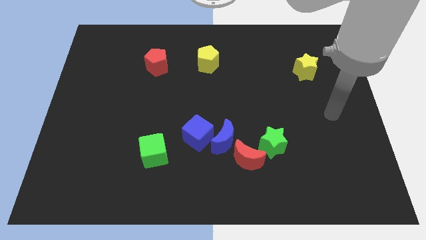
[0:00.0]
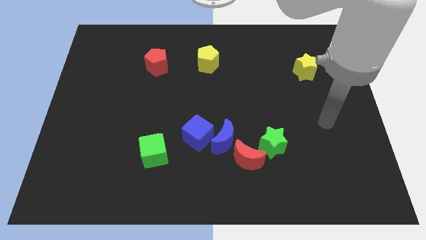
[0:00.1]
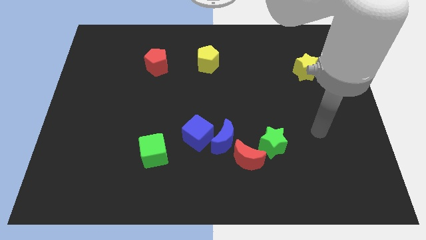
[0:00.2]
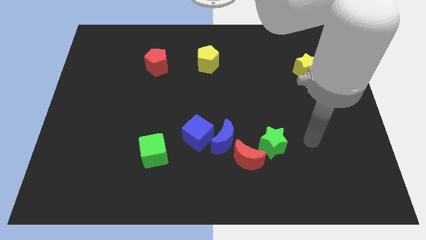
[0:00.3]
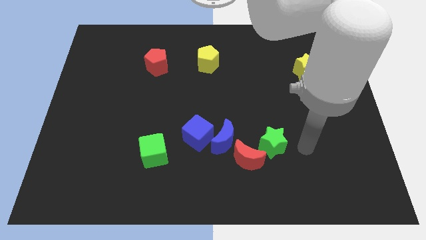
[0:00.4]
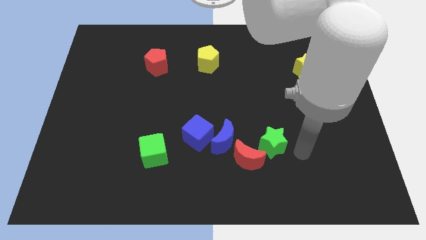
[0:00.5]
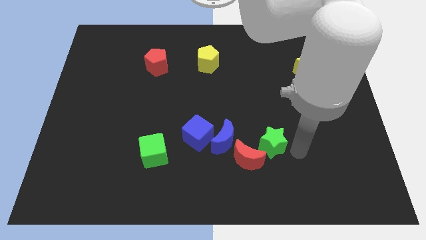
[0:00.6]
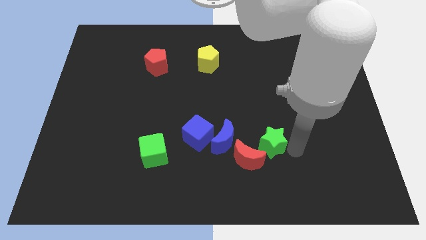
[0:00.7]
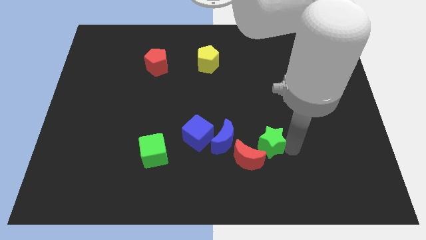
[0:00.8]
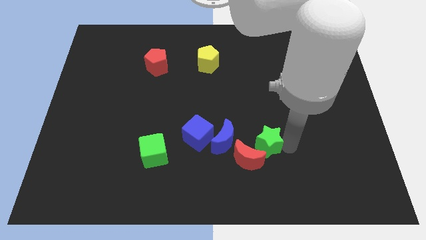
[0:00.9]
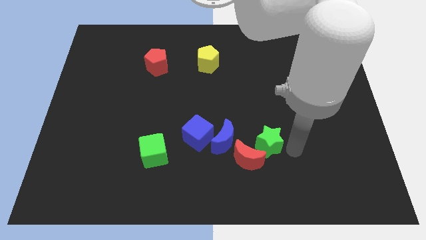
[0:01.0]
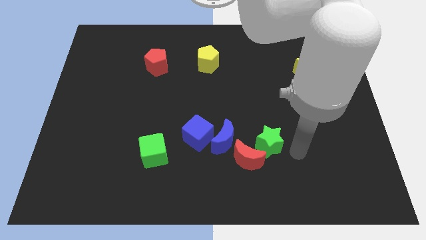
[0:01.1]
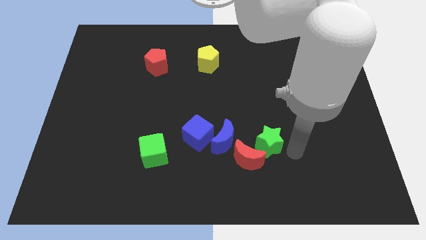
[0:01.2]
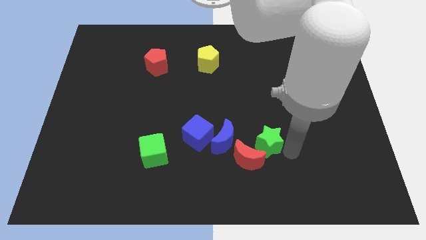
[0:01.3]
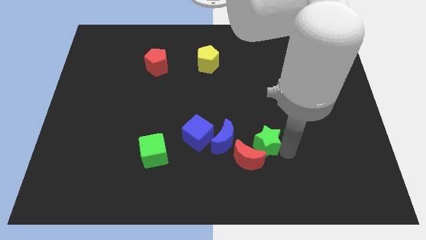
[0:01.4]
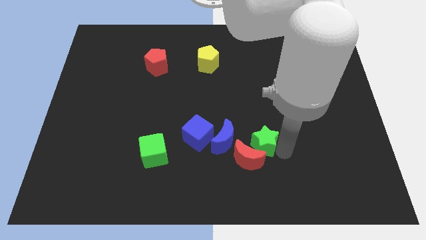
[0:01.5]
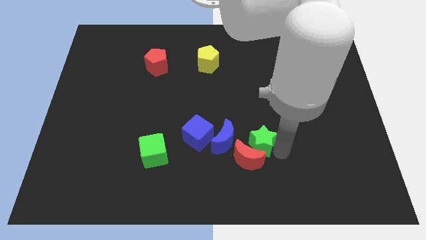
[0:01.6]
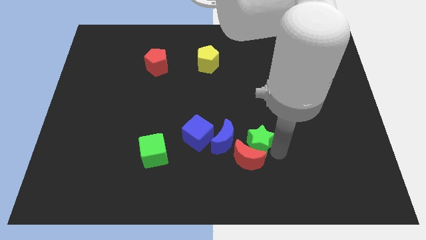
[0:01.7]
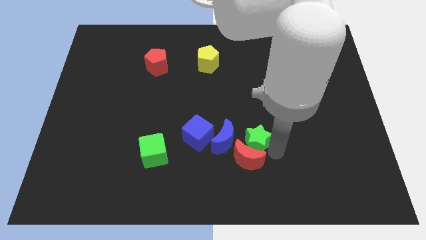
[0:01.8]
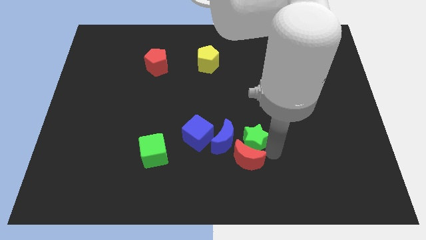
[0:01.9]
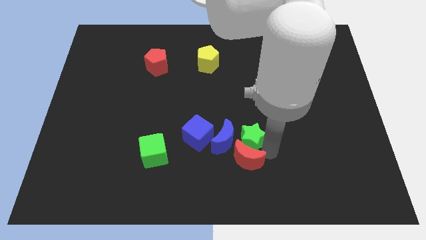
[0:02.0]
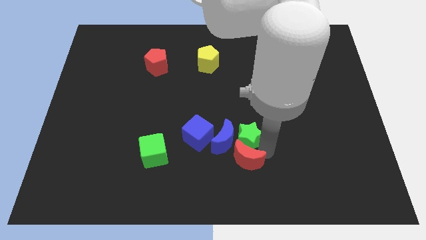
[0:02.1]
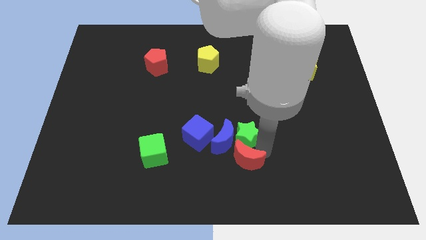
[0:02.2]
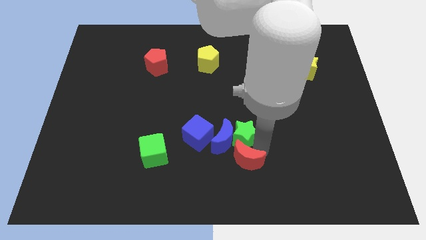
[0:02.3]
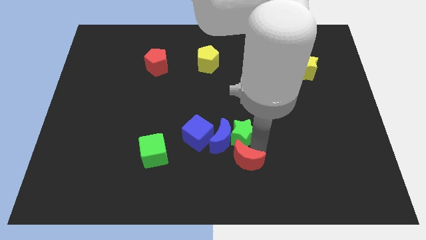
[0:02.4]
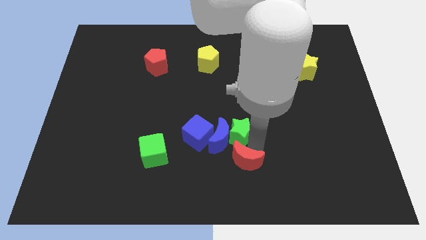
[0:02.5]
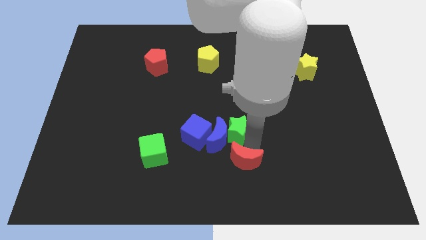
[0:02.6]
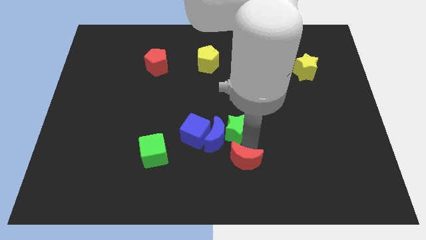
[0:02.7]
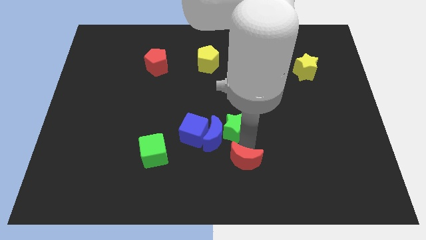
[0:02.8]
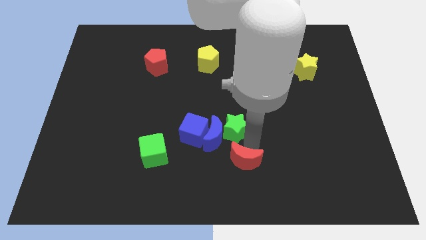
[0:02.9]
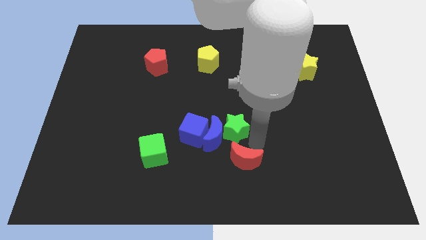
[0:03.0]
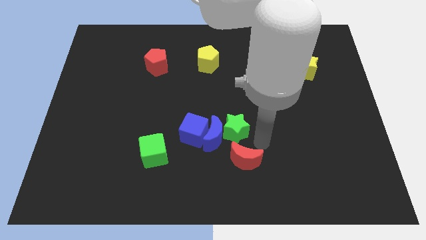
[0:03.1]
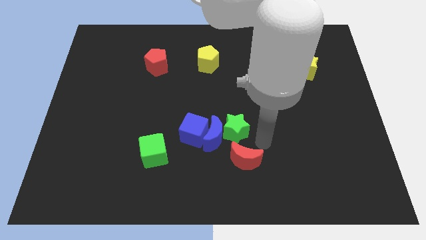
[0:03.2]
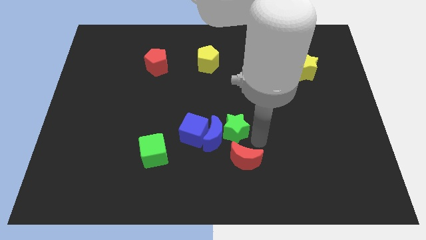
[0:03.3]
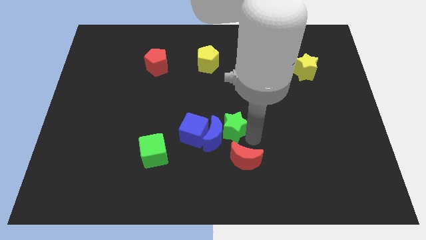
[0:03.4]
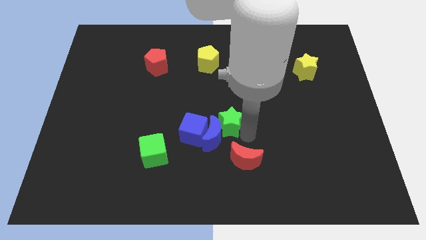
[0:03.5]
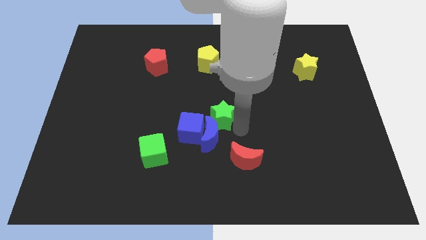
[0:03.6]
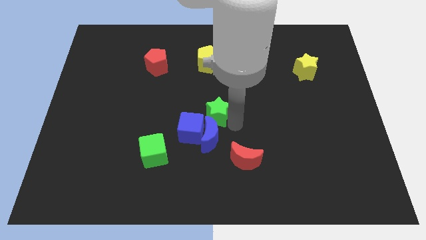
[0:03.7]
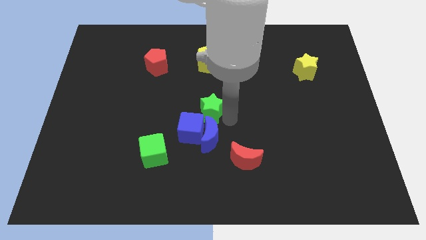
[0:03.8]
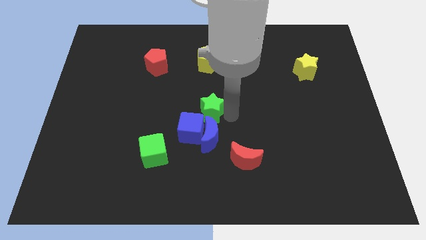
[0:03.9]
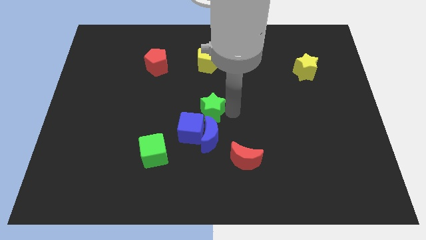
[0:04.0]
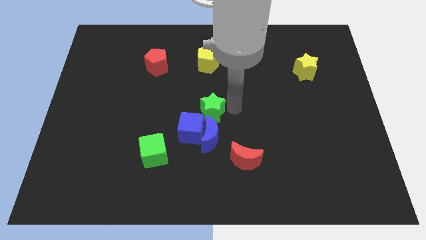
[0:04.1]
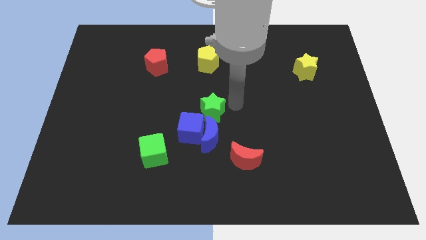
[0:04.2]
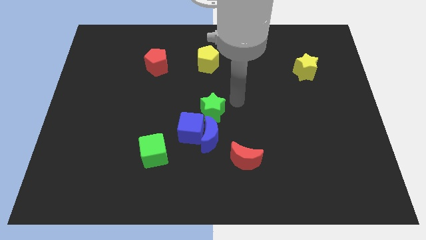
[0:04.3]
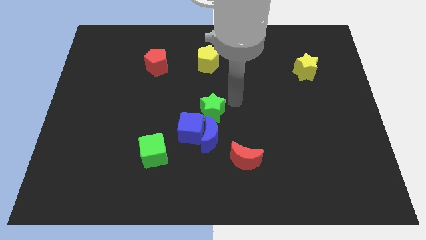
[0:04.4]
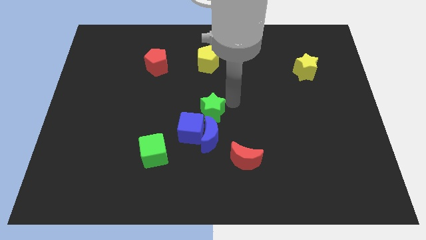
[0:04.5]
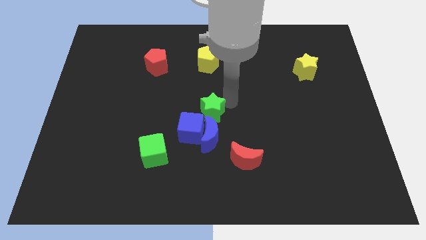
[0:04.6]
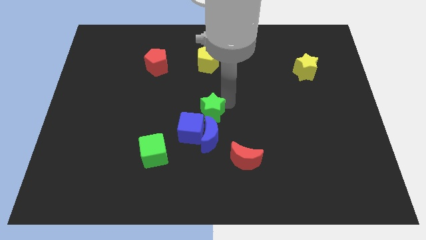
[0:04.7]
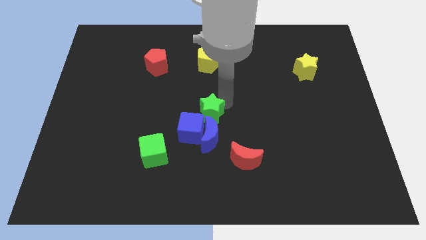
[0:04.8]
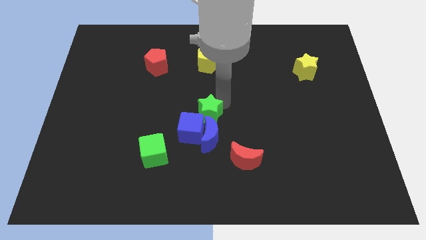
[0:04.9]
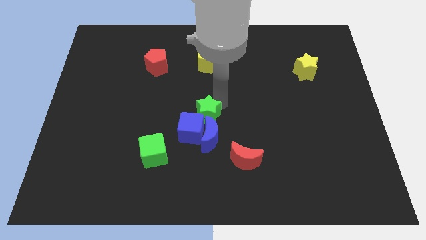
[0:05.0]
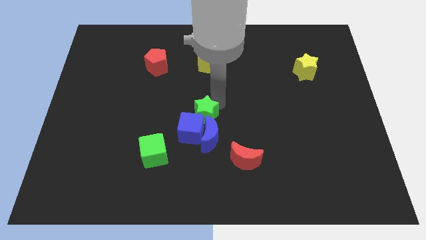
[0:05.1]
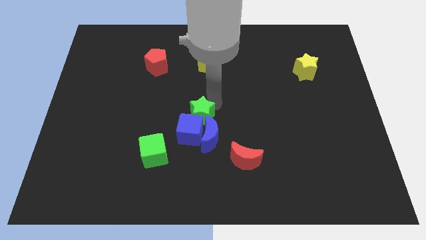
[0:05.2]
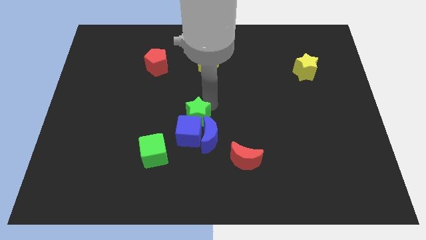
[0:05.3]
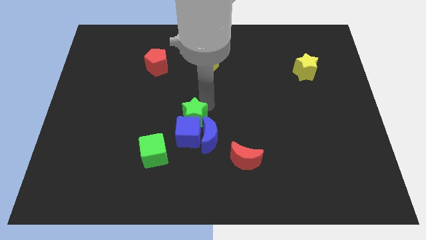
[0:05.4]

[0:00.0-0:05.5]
put the green star diagonally up and to the left of the blue cube

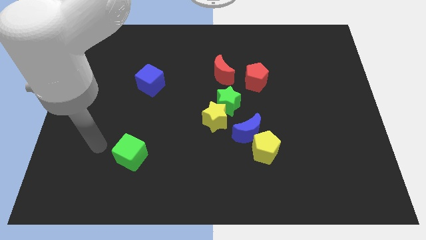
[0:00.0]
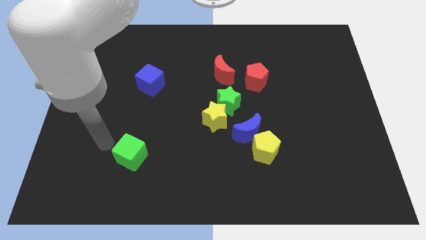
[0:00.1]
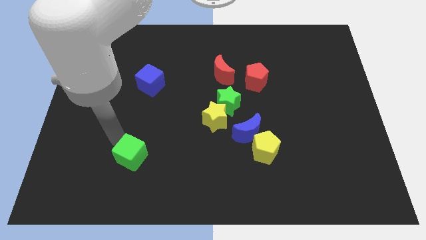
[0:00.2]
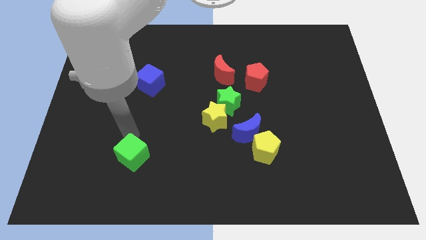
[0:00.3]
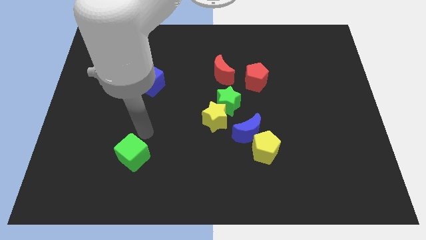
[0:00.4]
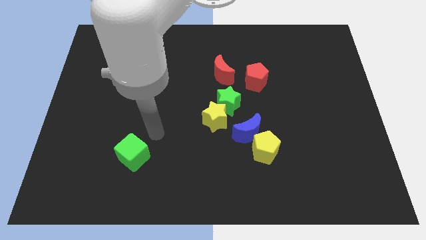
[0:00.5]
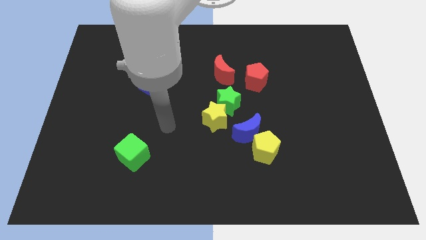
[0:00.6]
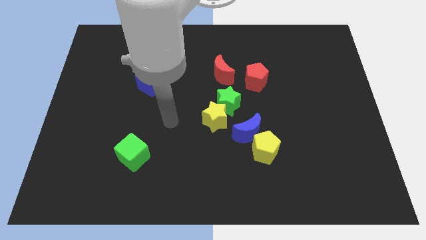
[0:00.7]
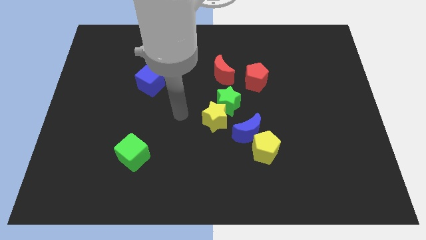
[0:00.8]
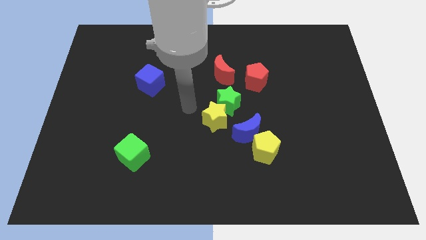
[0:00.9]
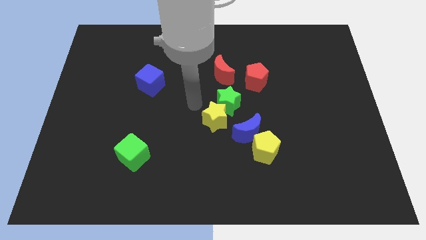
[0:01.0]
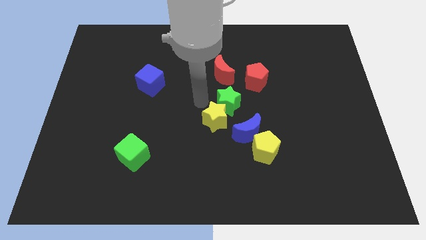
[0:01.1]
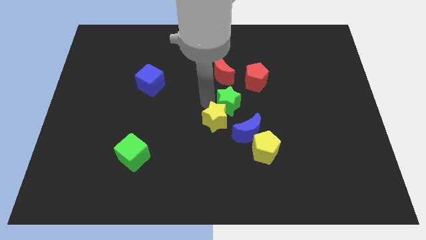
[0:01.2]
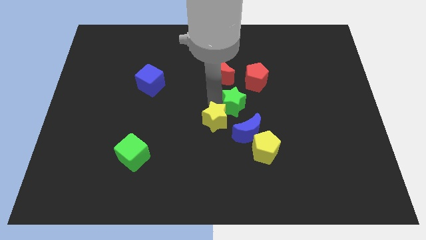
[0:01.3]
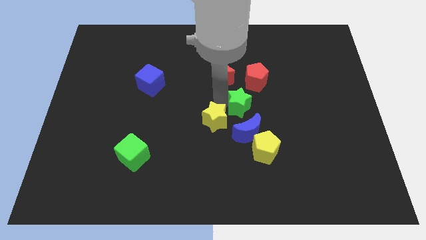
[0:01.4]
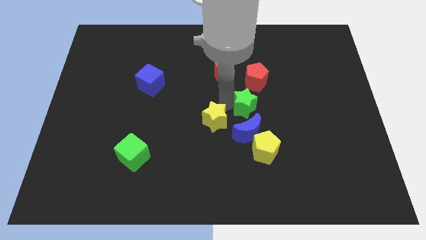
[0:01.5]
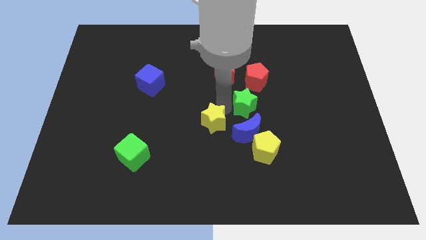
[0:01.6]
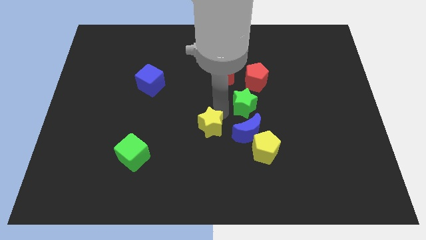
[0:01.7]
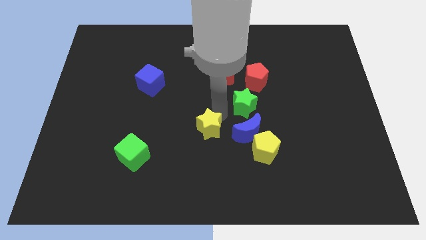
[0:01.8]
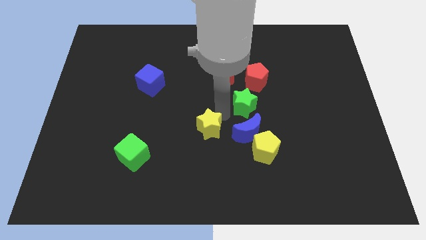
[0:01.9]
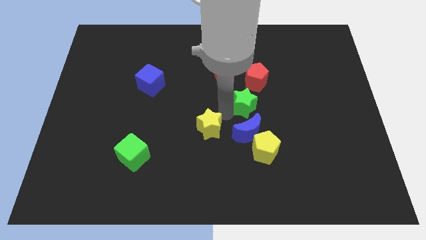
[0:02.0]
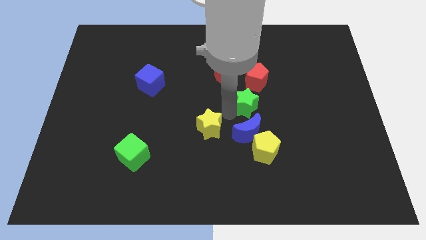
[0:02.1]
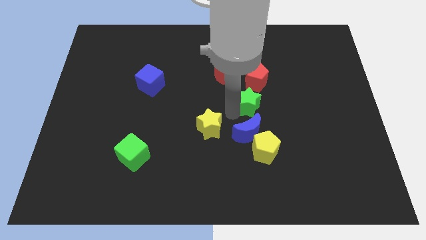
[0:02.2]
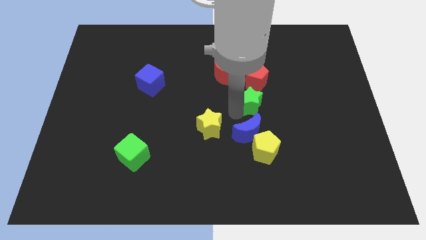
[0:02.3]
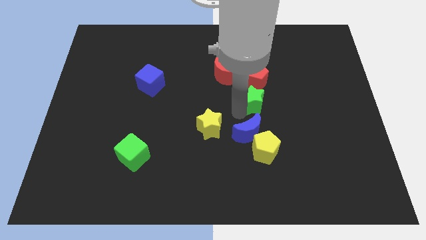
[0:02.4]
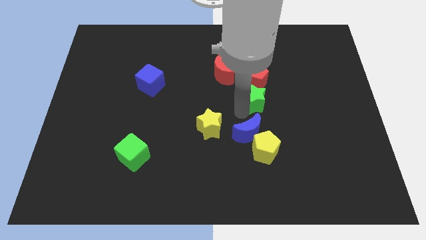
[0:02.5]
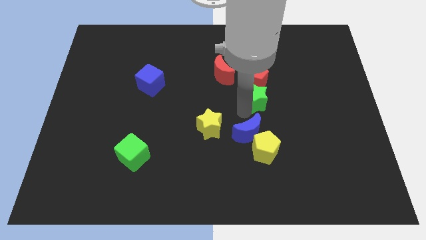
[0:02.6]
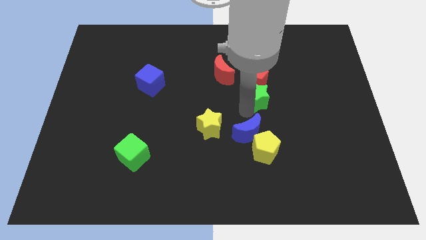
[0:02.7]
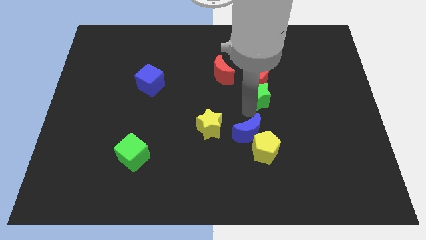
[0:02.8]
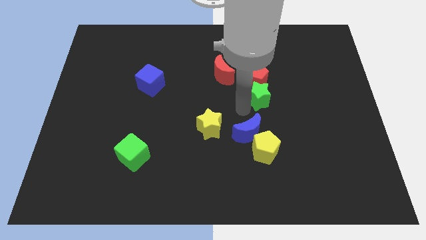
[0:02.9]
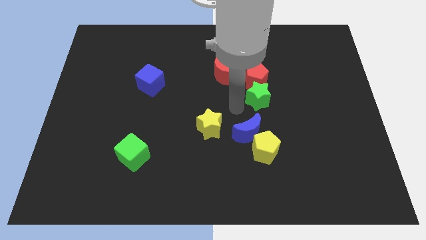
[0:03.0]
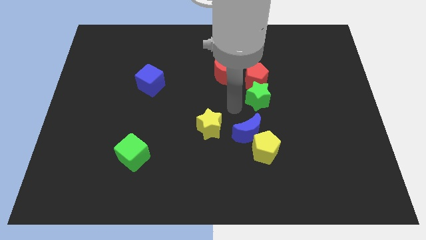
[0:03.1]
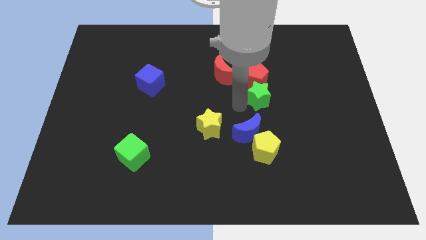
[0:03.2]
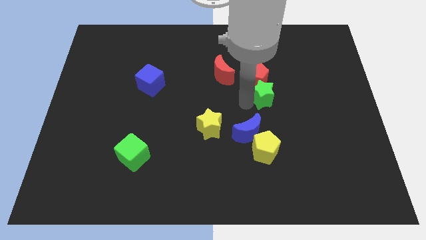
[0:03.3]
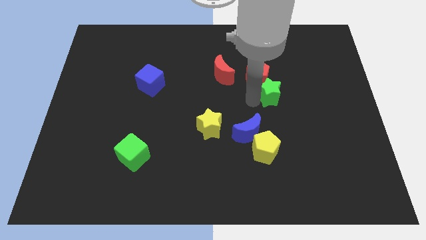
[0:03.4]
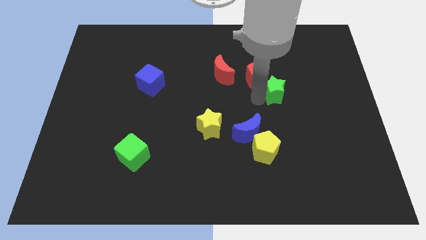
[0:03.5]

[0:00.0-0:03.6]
put the green star just right of the red pentagon
